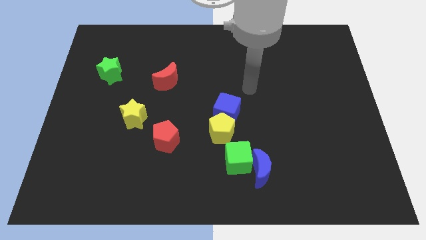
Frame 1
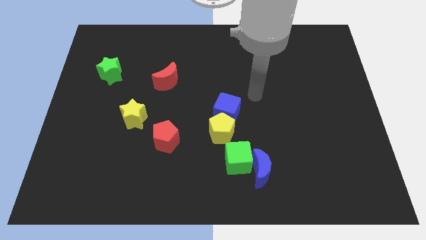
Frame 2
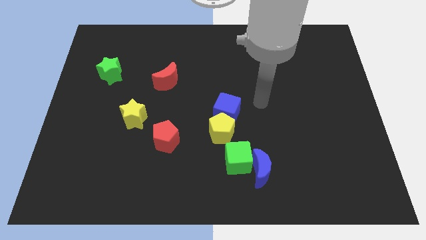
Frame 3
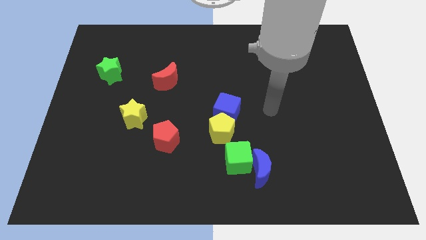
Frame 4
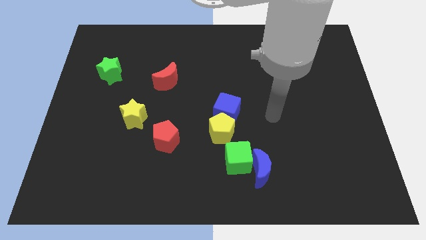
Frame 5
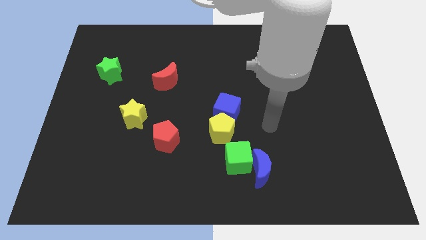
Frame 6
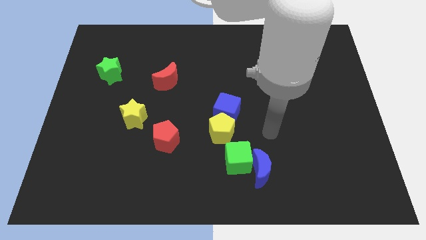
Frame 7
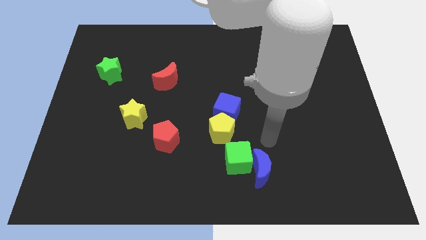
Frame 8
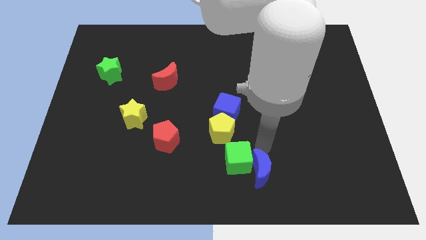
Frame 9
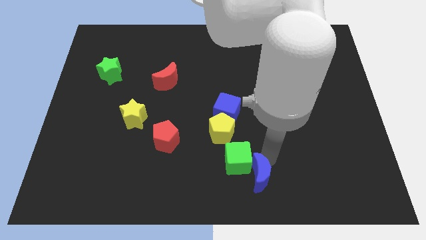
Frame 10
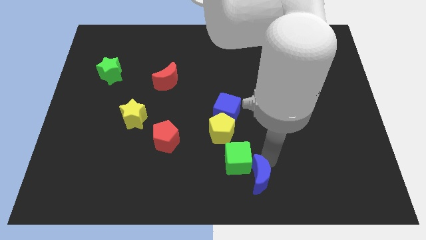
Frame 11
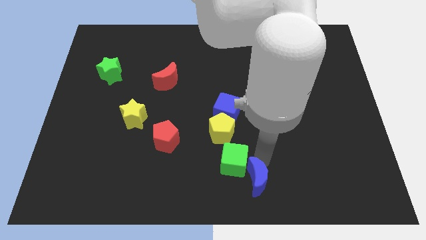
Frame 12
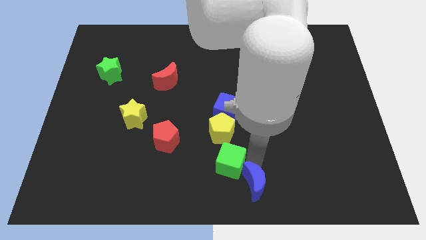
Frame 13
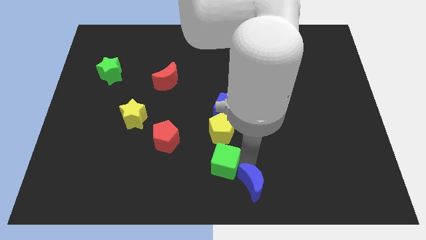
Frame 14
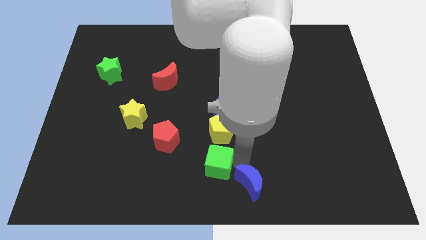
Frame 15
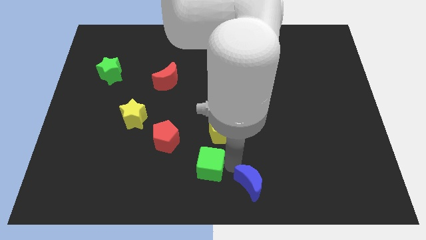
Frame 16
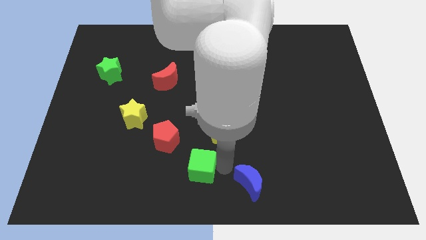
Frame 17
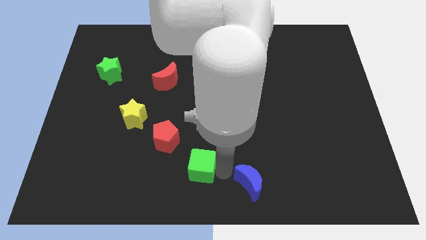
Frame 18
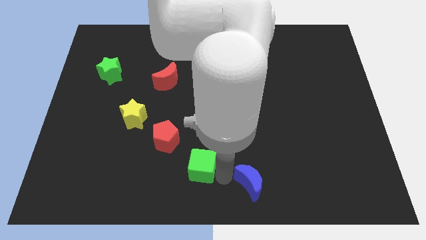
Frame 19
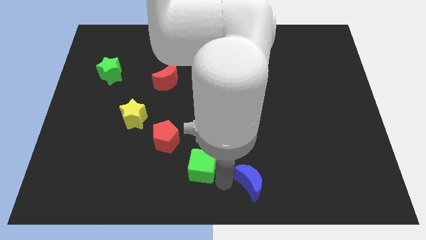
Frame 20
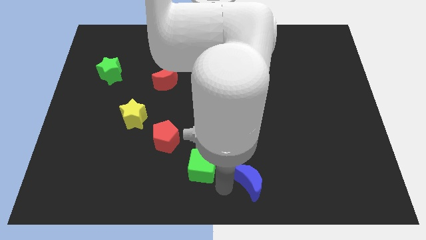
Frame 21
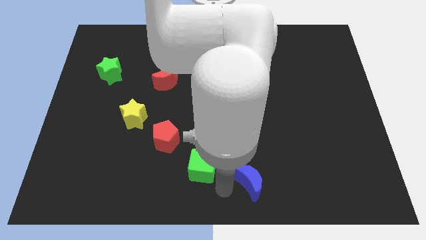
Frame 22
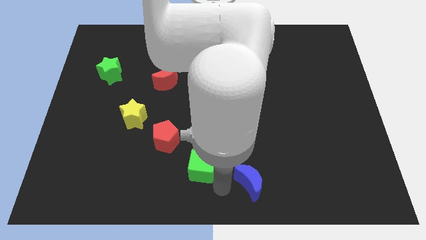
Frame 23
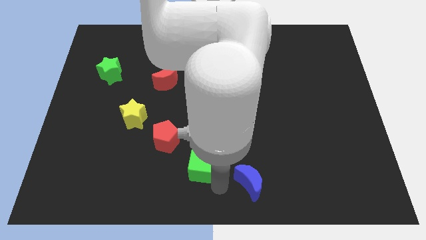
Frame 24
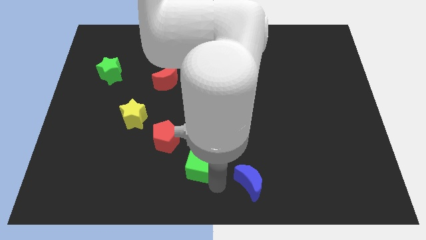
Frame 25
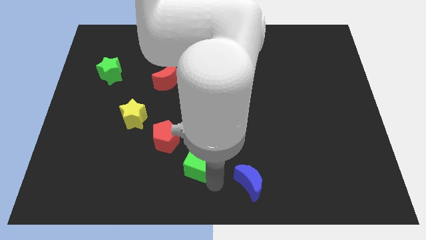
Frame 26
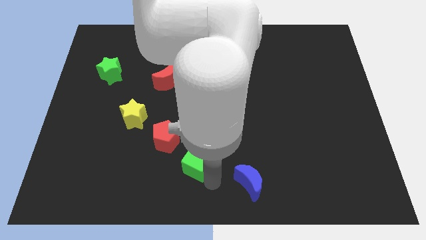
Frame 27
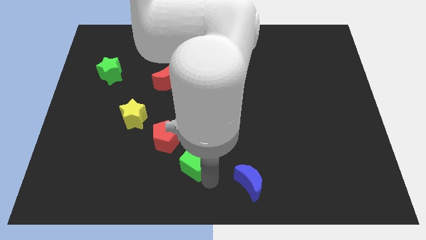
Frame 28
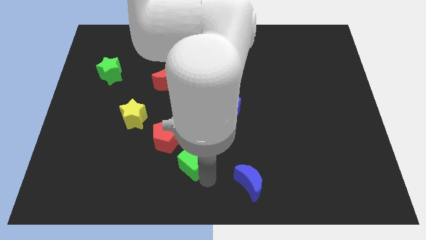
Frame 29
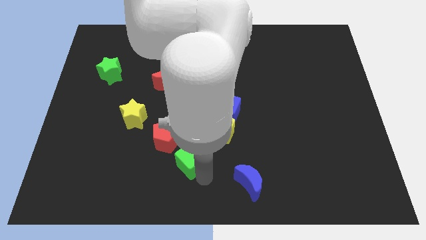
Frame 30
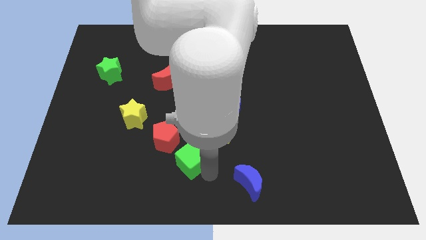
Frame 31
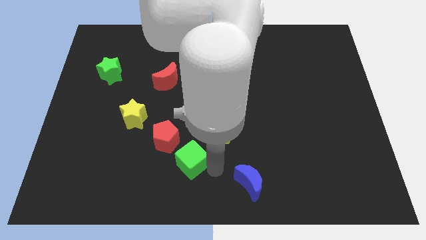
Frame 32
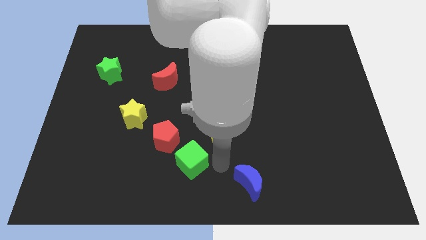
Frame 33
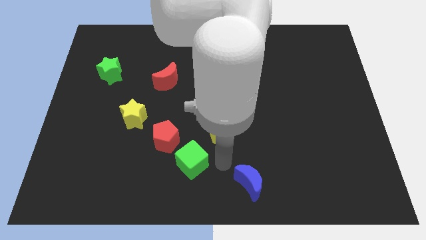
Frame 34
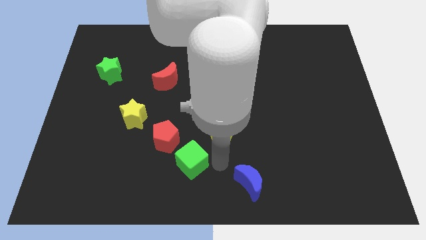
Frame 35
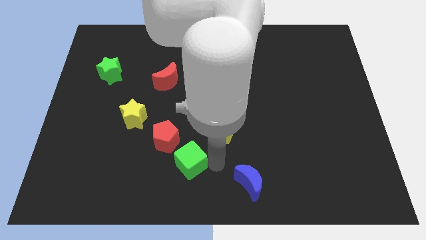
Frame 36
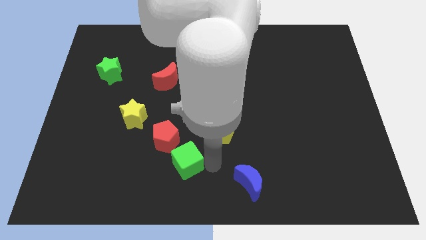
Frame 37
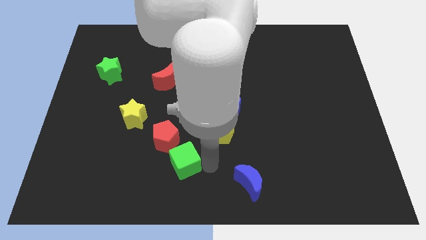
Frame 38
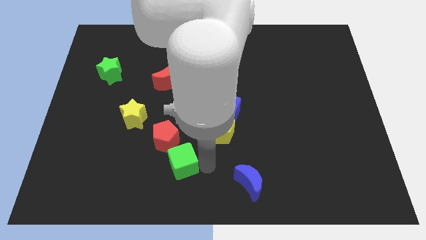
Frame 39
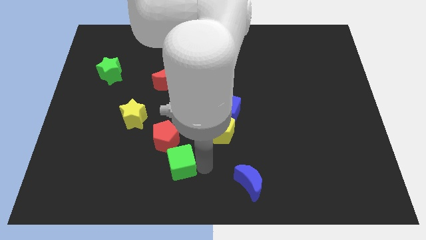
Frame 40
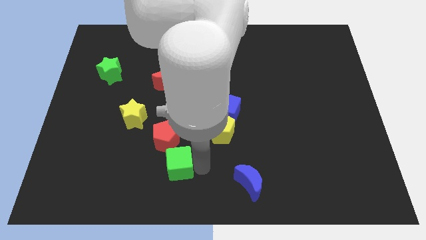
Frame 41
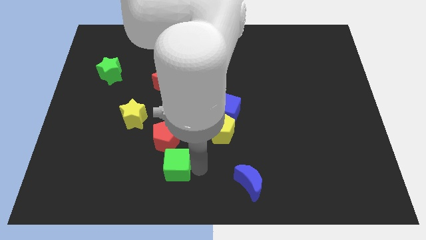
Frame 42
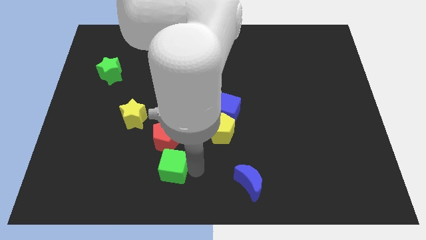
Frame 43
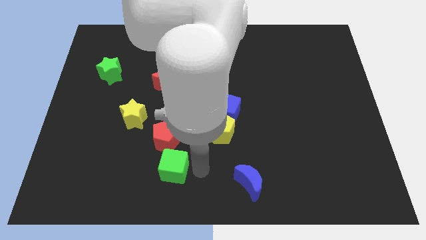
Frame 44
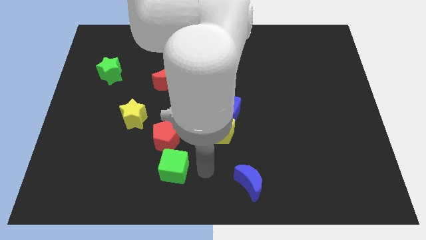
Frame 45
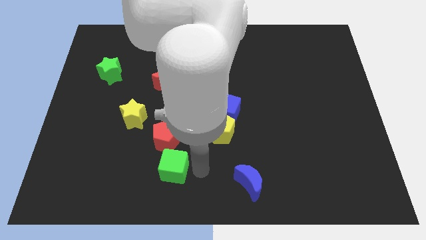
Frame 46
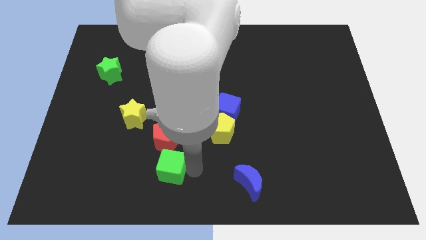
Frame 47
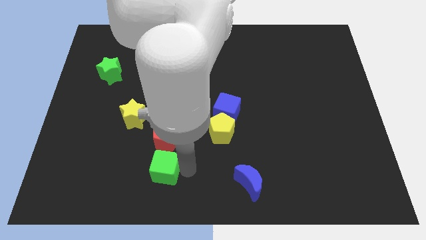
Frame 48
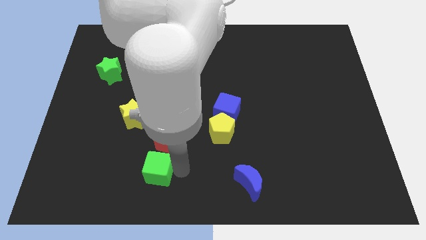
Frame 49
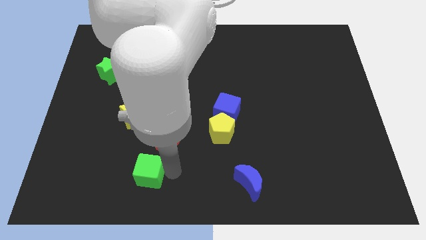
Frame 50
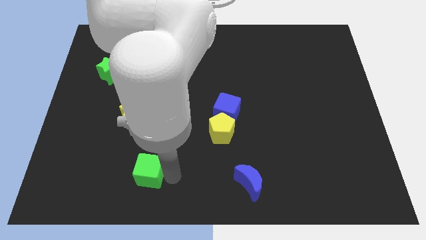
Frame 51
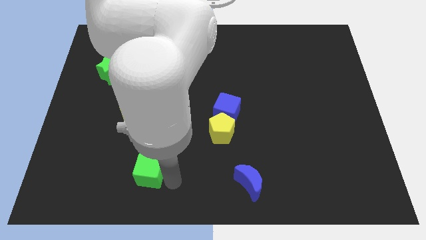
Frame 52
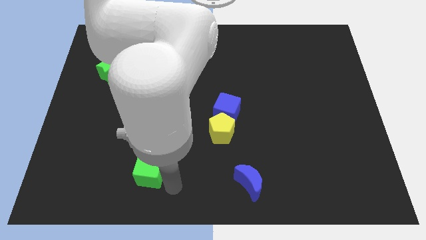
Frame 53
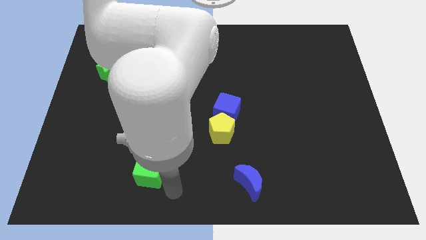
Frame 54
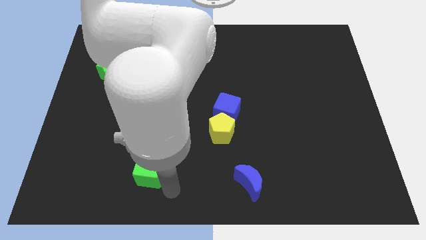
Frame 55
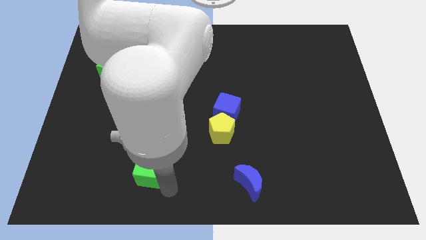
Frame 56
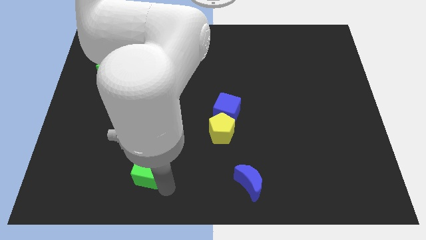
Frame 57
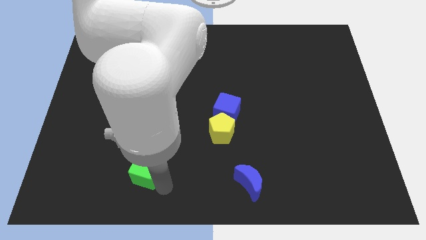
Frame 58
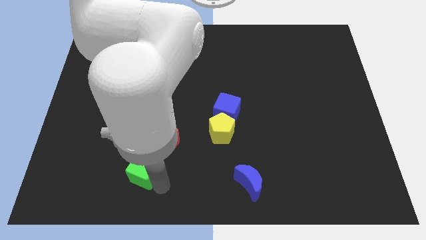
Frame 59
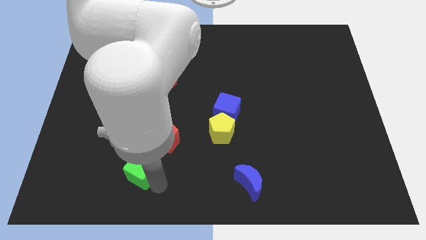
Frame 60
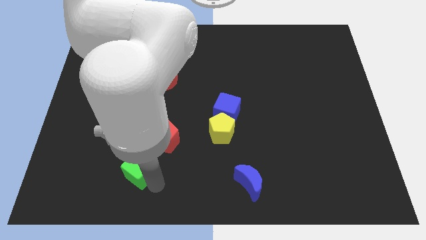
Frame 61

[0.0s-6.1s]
push the green cube left

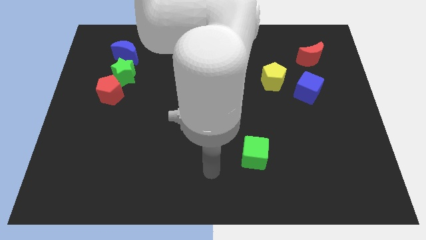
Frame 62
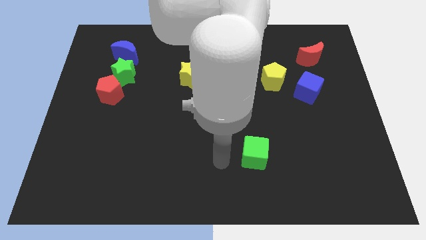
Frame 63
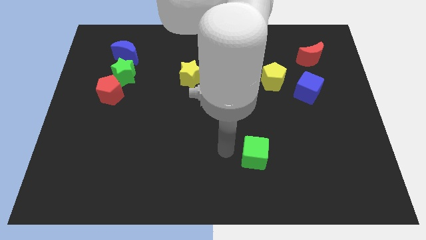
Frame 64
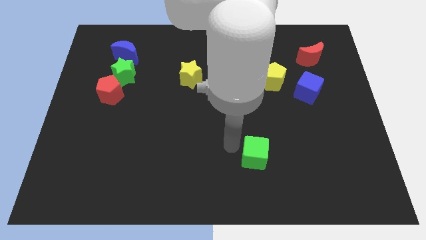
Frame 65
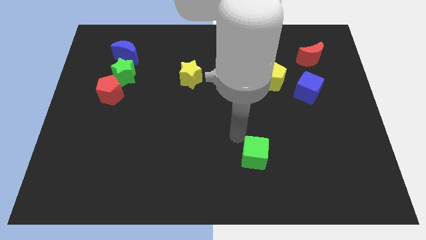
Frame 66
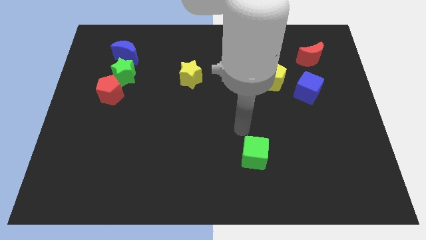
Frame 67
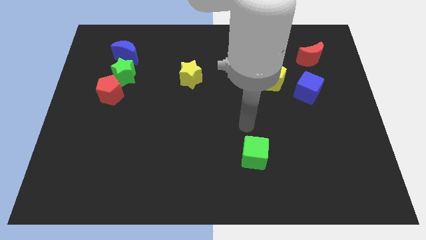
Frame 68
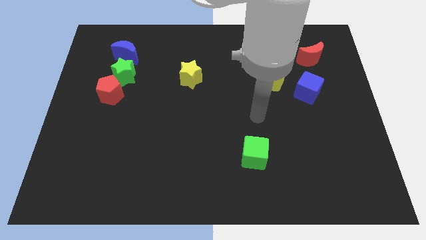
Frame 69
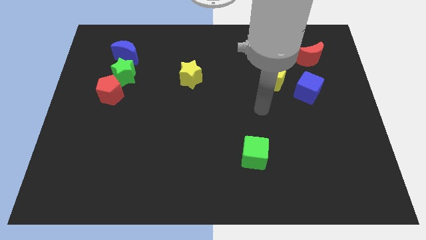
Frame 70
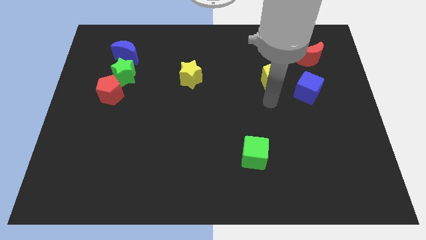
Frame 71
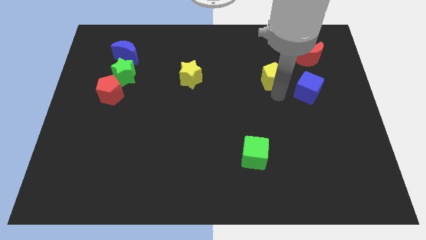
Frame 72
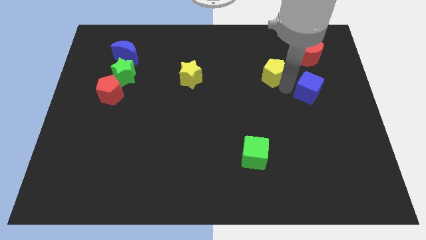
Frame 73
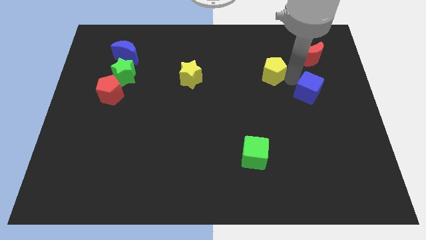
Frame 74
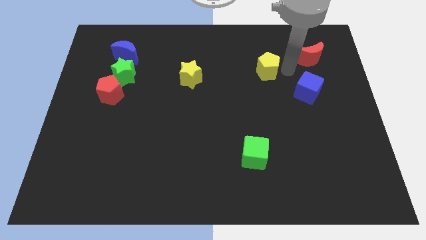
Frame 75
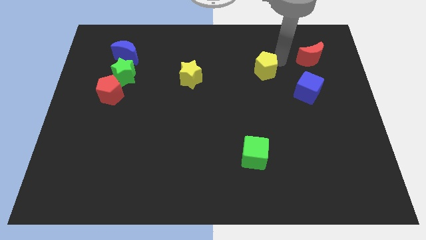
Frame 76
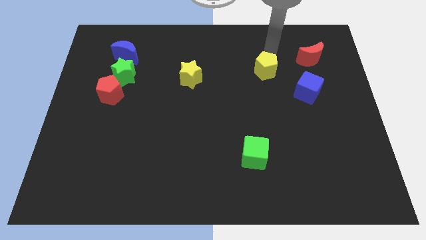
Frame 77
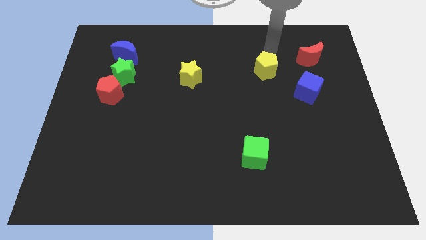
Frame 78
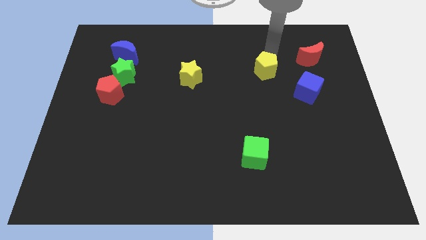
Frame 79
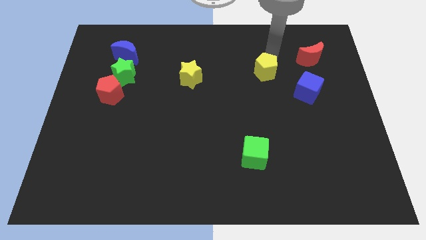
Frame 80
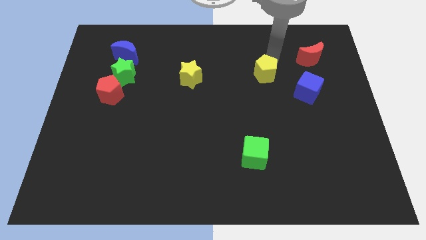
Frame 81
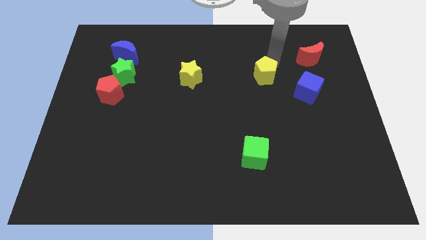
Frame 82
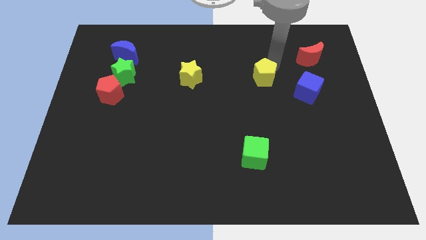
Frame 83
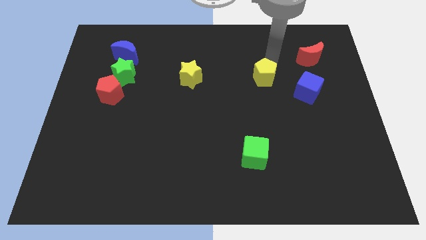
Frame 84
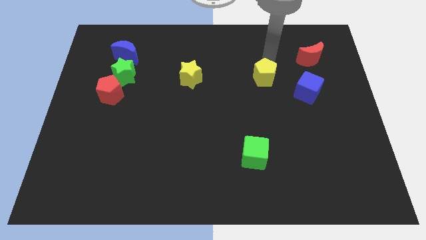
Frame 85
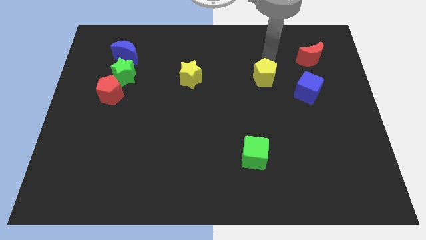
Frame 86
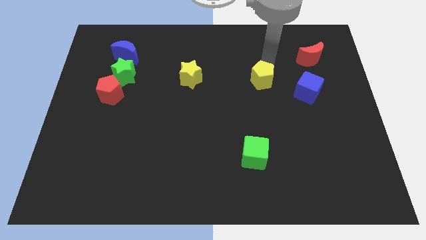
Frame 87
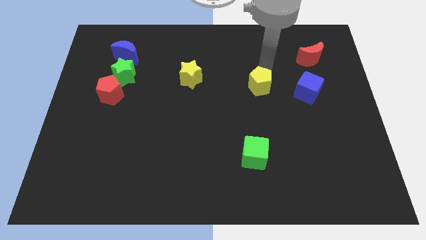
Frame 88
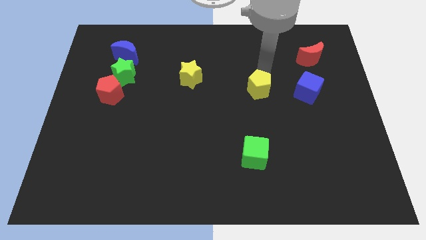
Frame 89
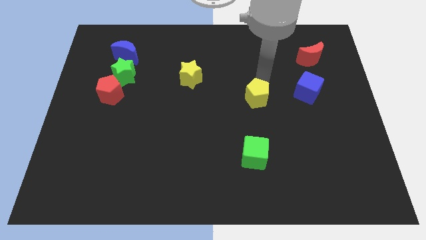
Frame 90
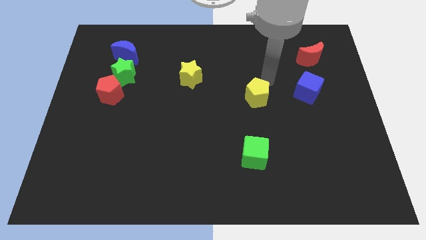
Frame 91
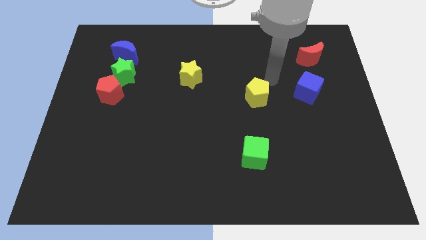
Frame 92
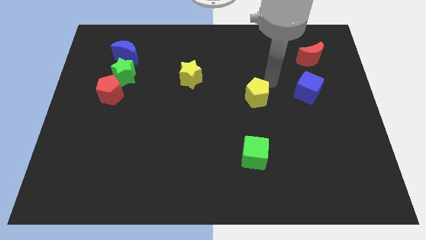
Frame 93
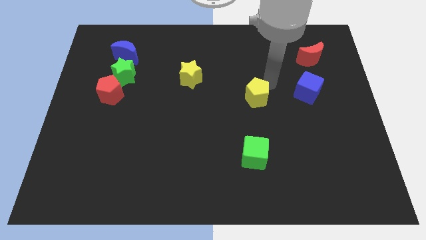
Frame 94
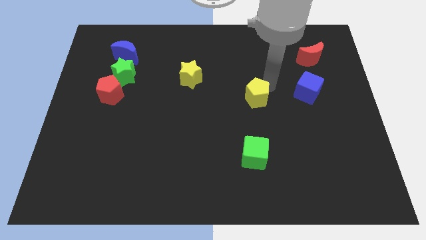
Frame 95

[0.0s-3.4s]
move the yellow pentagon a bit down and then left
